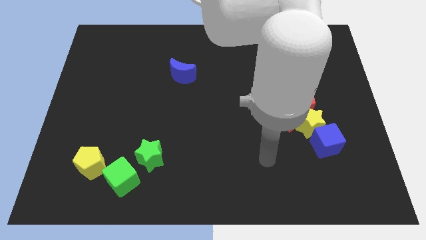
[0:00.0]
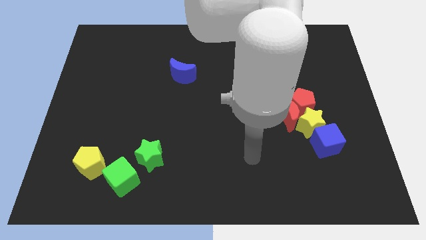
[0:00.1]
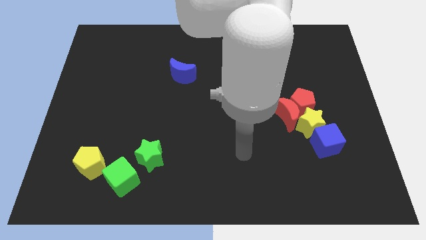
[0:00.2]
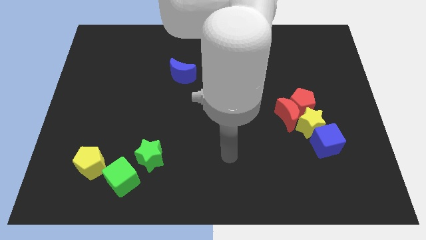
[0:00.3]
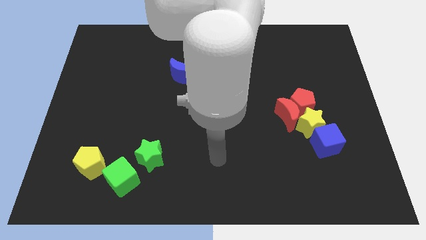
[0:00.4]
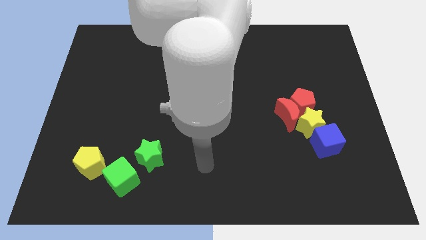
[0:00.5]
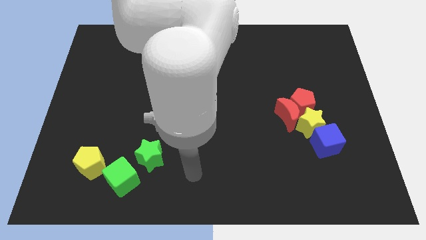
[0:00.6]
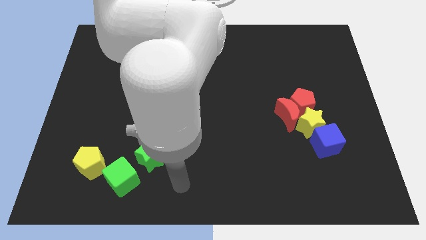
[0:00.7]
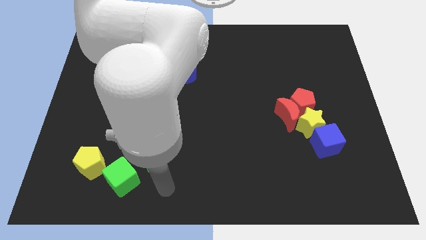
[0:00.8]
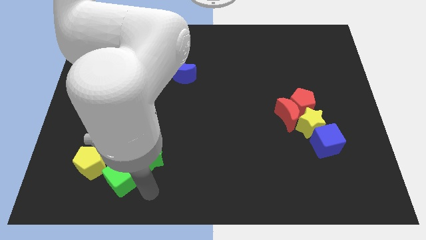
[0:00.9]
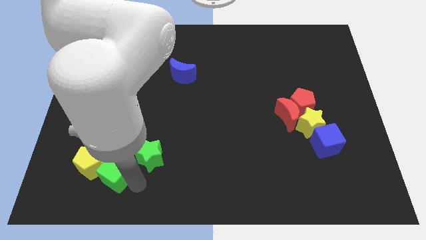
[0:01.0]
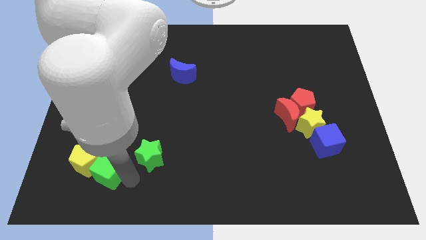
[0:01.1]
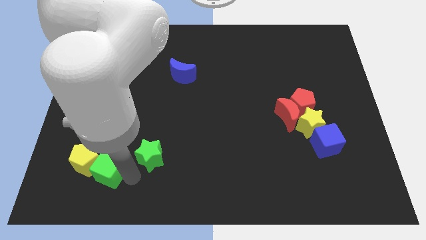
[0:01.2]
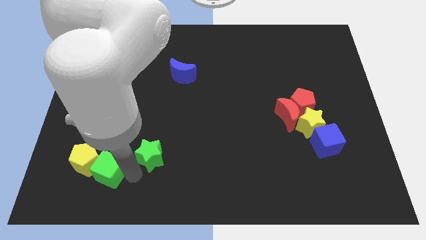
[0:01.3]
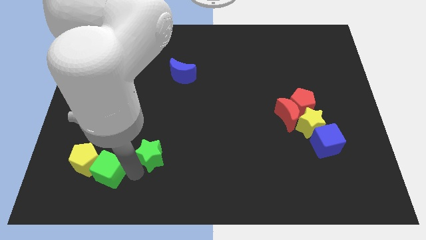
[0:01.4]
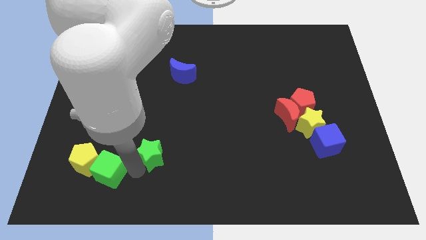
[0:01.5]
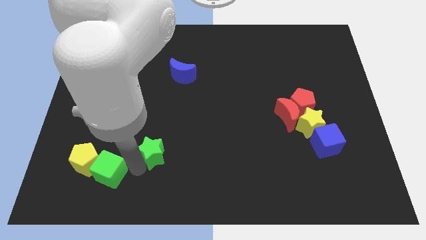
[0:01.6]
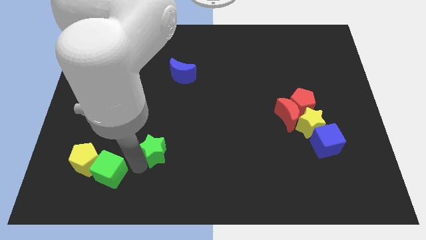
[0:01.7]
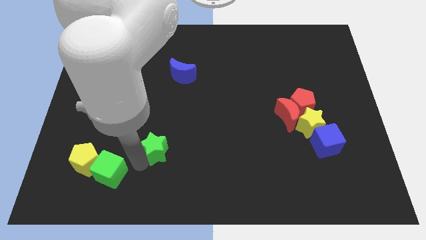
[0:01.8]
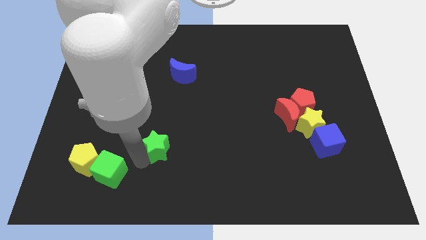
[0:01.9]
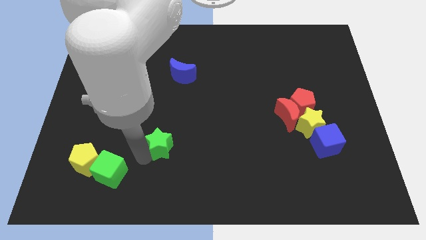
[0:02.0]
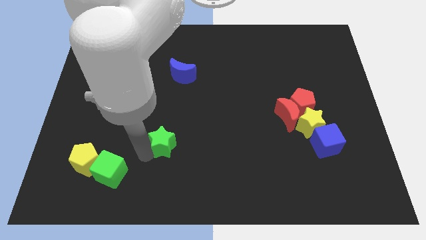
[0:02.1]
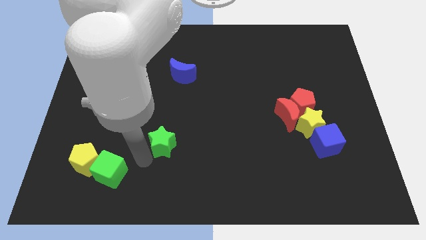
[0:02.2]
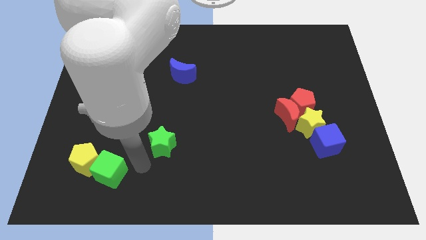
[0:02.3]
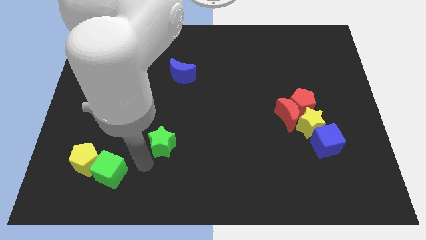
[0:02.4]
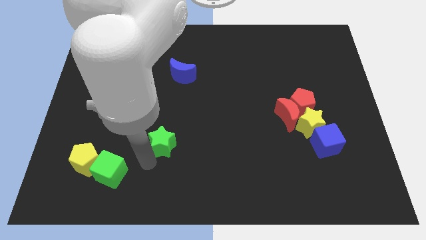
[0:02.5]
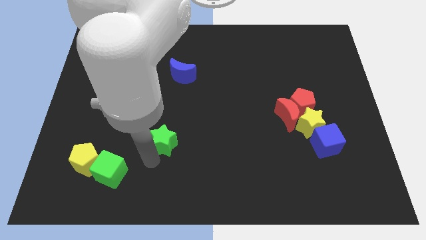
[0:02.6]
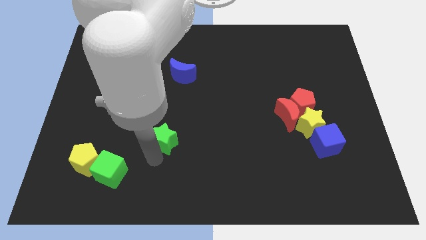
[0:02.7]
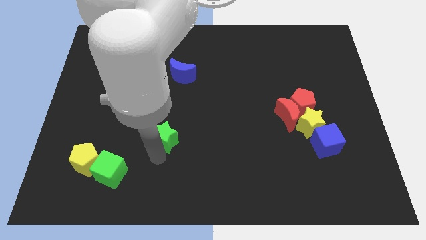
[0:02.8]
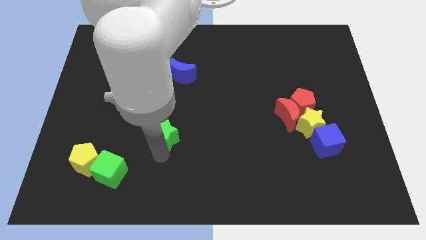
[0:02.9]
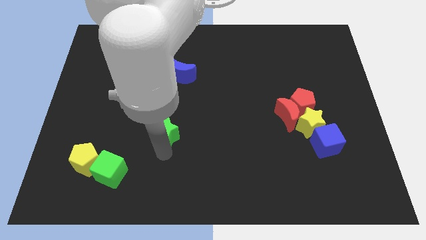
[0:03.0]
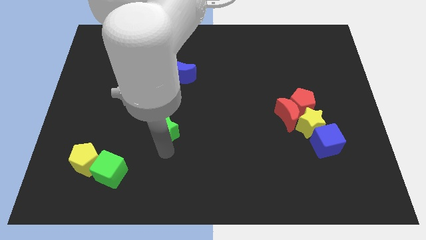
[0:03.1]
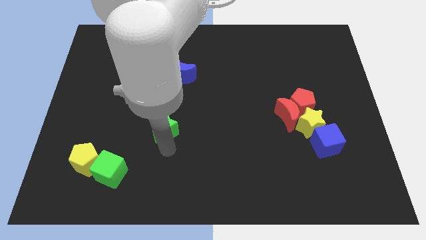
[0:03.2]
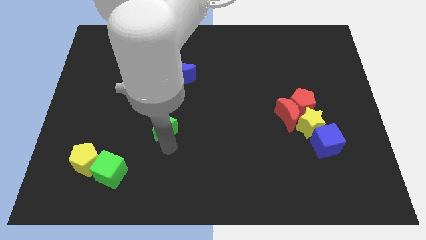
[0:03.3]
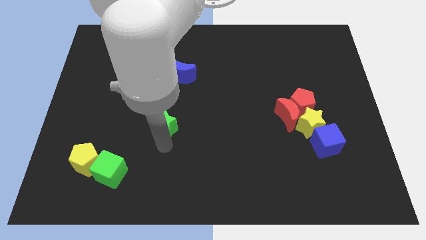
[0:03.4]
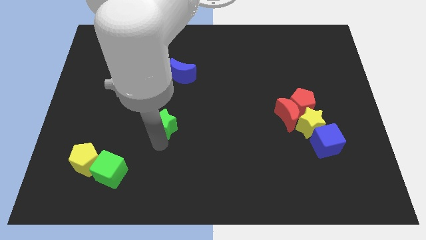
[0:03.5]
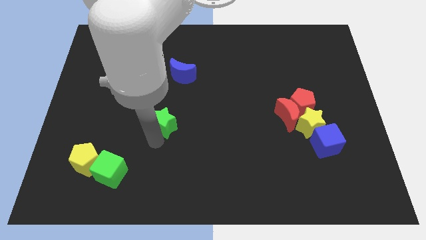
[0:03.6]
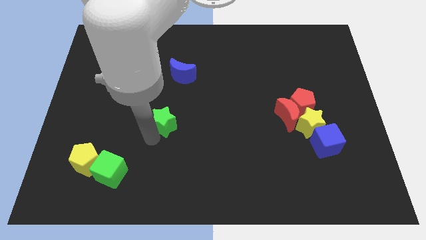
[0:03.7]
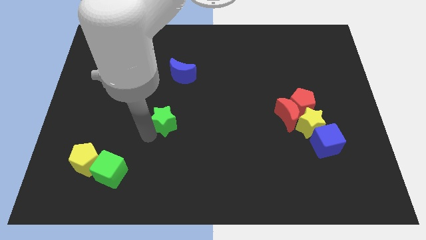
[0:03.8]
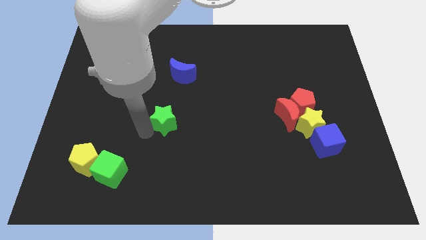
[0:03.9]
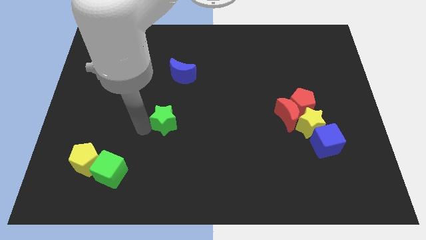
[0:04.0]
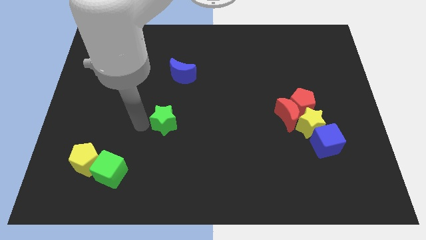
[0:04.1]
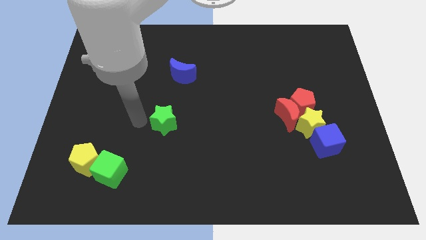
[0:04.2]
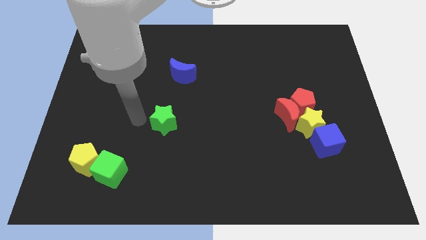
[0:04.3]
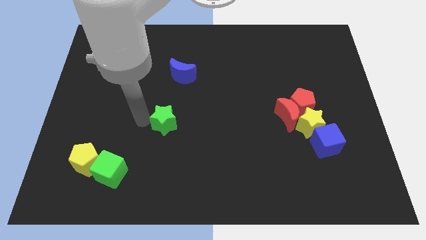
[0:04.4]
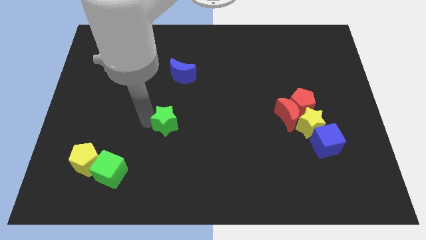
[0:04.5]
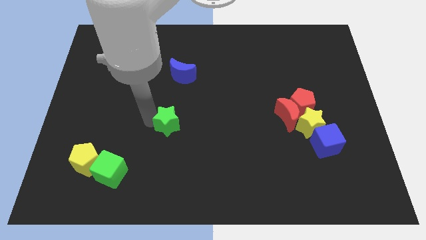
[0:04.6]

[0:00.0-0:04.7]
move the green star to the middle

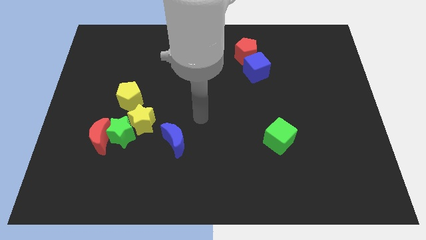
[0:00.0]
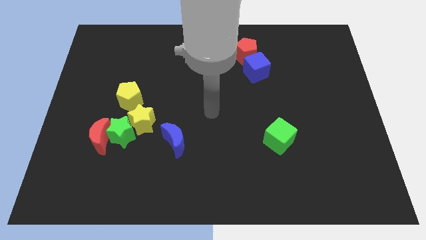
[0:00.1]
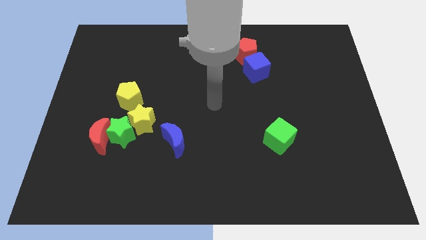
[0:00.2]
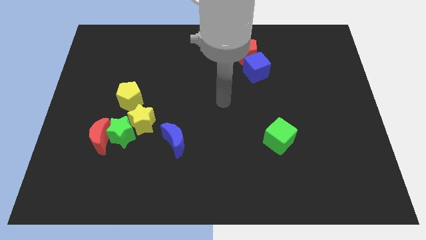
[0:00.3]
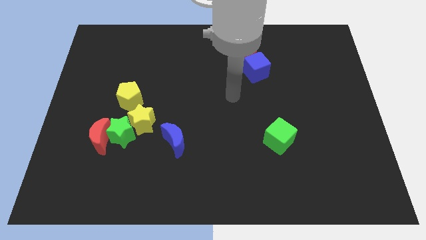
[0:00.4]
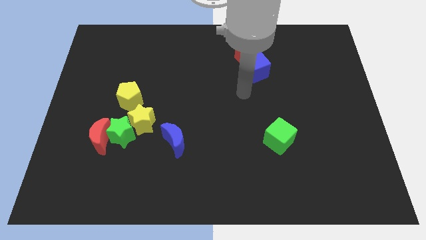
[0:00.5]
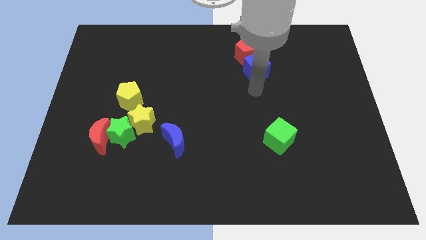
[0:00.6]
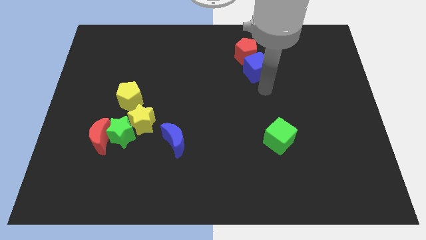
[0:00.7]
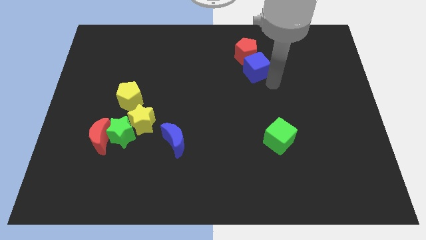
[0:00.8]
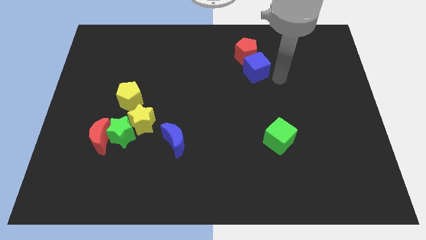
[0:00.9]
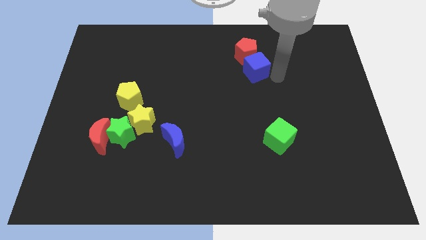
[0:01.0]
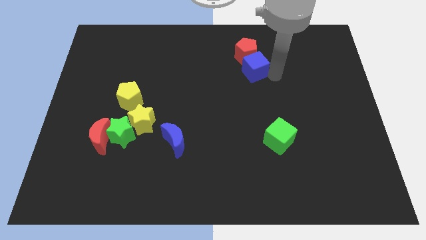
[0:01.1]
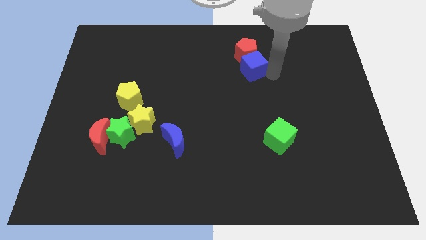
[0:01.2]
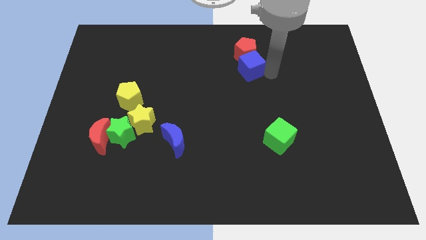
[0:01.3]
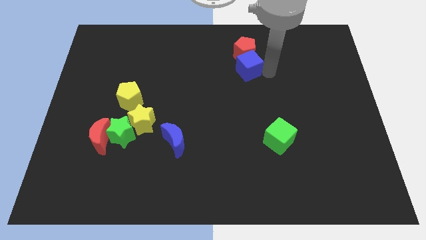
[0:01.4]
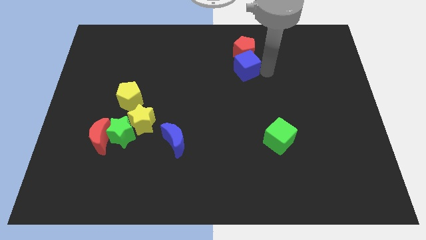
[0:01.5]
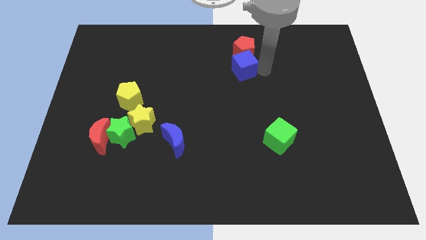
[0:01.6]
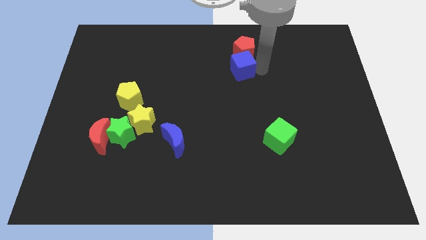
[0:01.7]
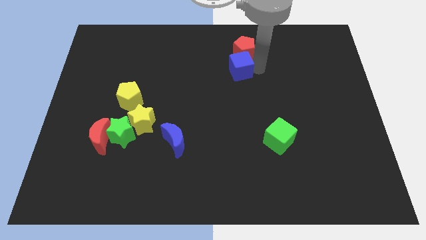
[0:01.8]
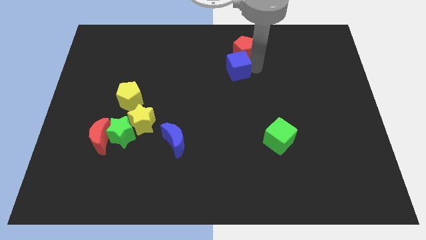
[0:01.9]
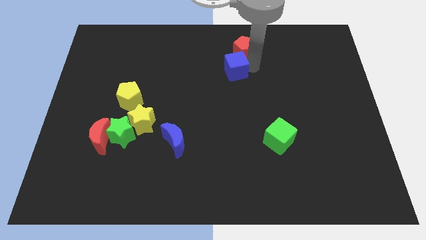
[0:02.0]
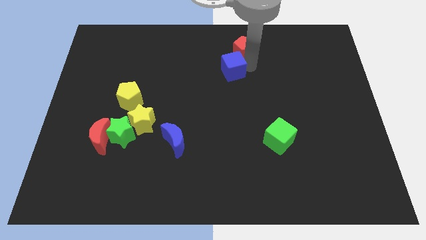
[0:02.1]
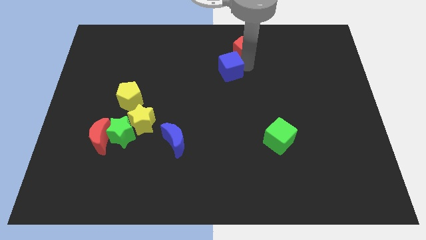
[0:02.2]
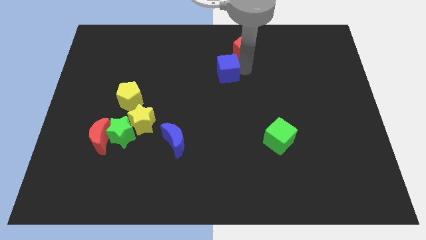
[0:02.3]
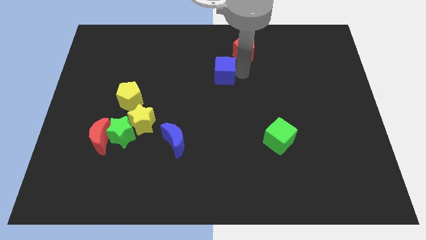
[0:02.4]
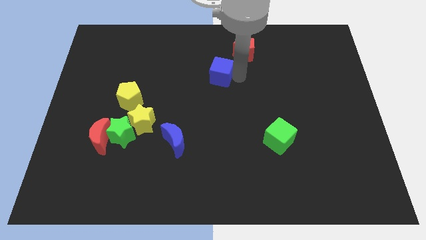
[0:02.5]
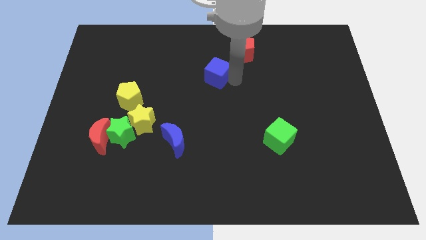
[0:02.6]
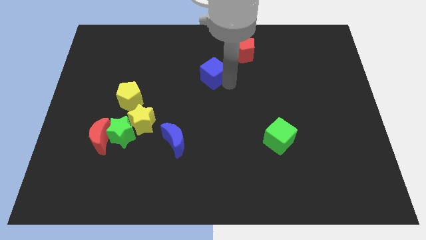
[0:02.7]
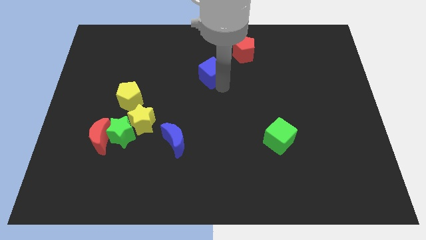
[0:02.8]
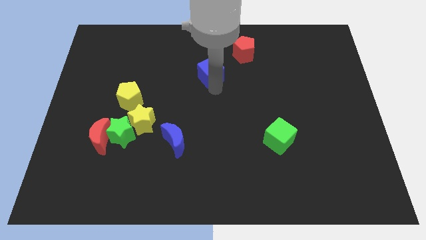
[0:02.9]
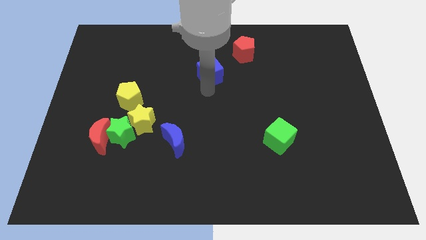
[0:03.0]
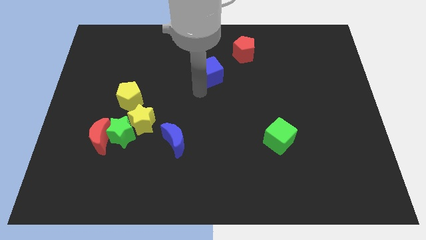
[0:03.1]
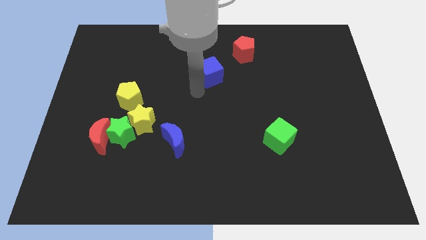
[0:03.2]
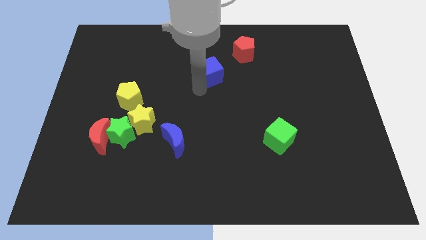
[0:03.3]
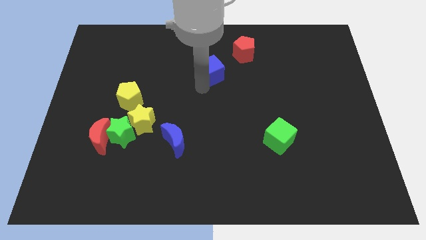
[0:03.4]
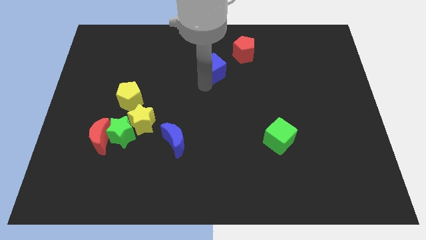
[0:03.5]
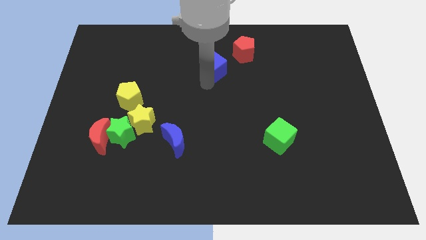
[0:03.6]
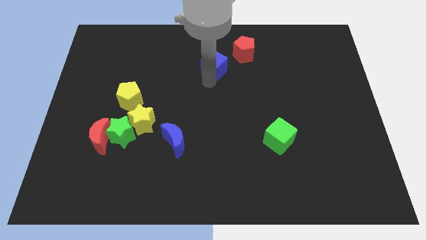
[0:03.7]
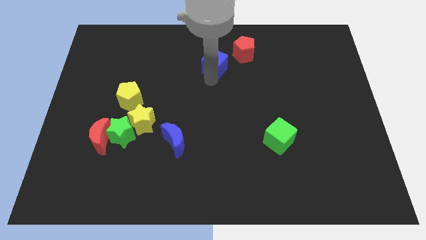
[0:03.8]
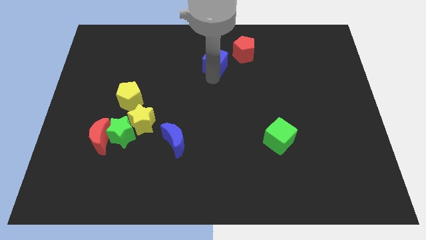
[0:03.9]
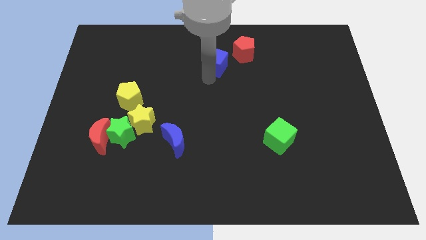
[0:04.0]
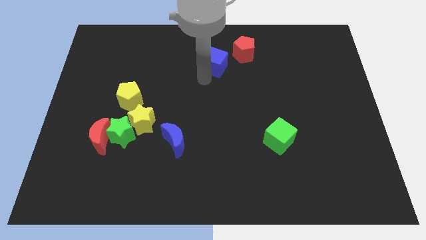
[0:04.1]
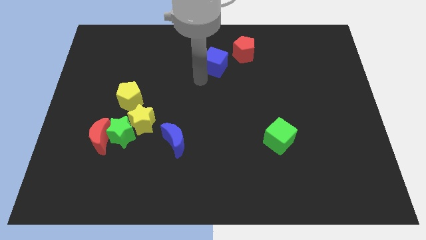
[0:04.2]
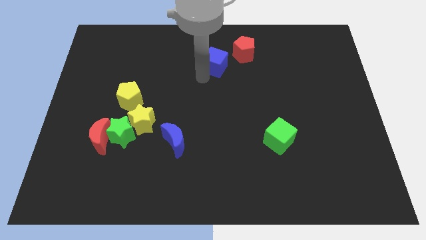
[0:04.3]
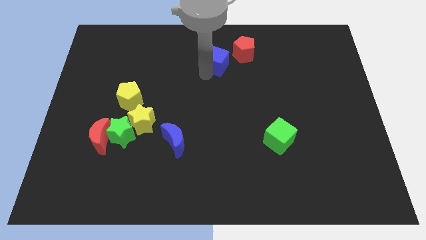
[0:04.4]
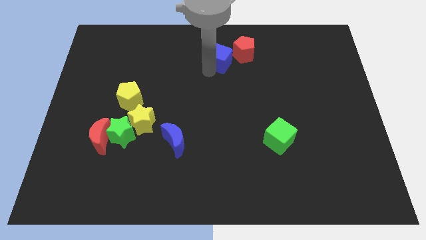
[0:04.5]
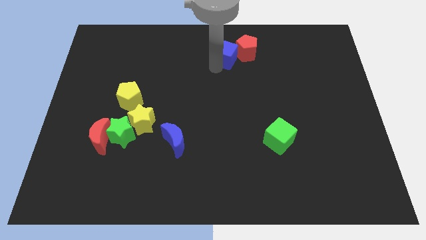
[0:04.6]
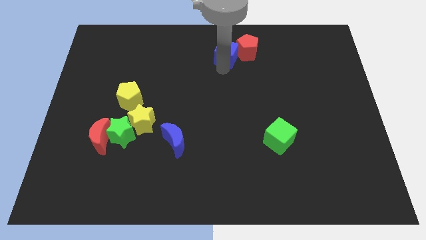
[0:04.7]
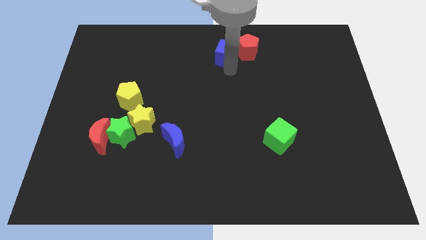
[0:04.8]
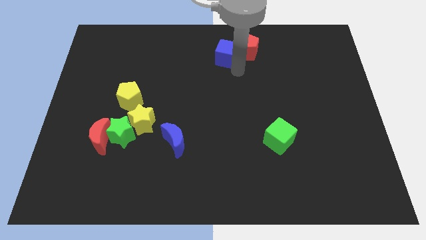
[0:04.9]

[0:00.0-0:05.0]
move the blue cube to the top side
